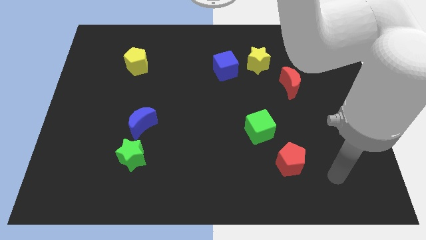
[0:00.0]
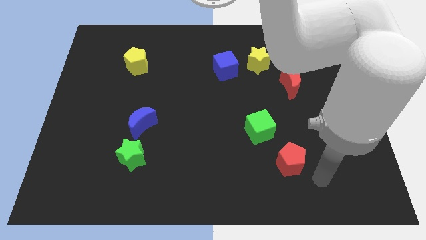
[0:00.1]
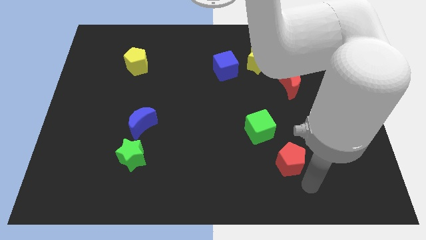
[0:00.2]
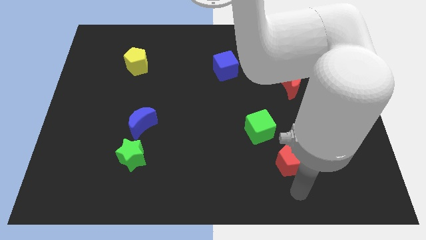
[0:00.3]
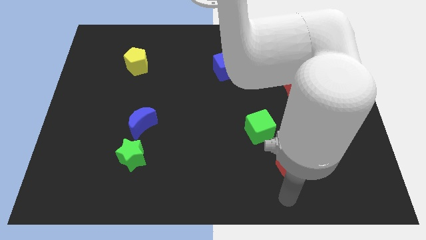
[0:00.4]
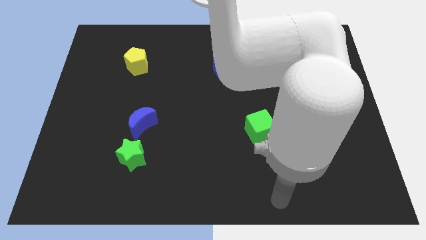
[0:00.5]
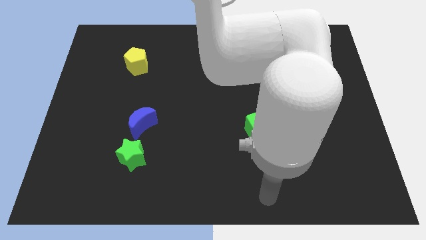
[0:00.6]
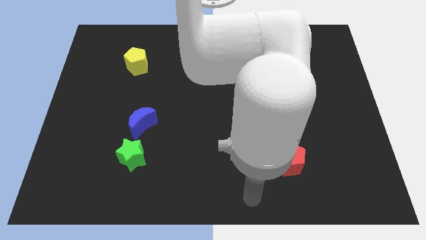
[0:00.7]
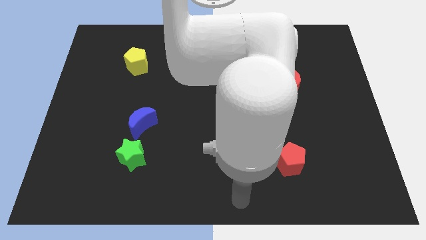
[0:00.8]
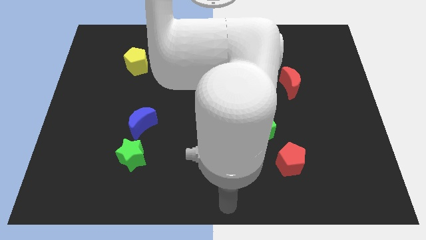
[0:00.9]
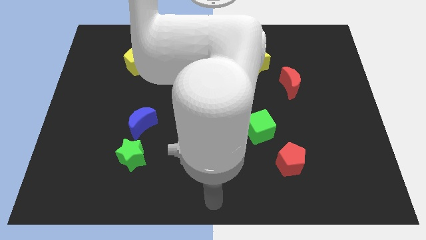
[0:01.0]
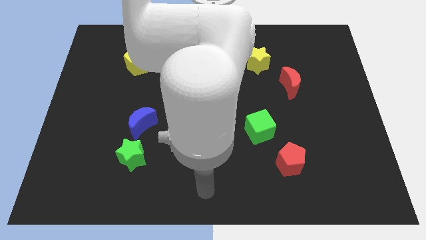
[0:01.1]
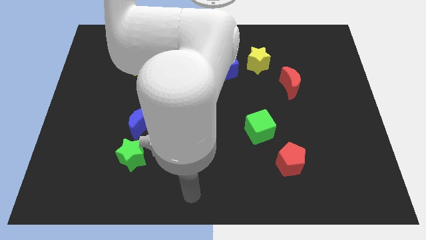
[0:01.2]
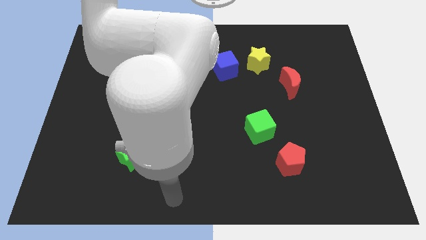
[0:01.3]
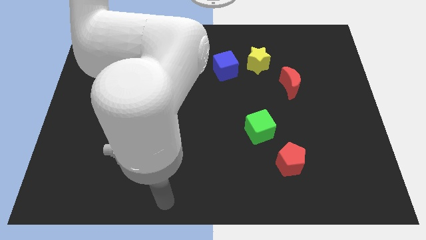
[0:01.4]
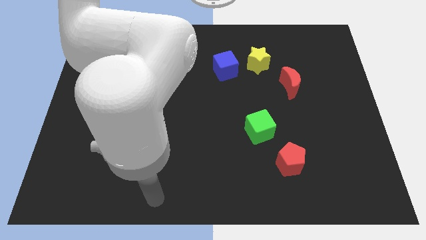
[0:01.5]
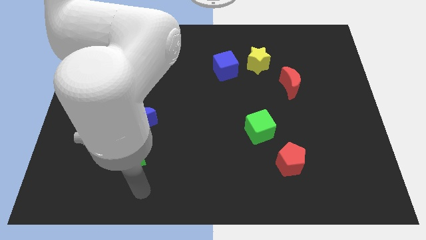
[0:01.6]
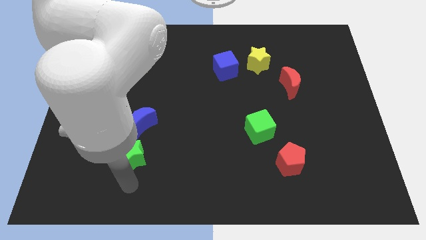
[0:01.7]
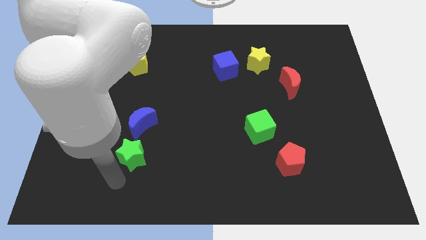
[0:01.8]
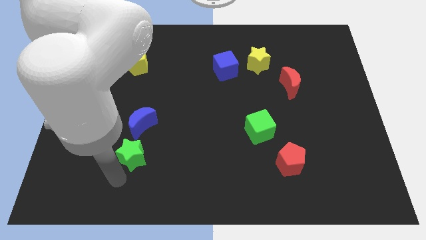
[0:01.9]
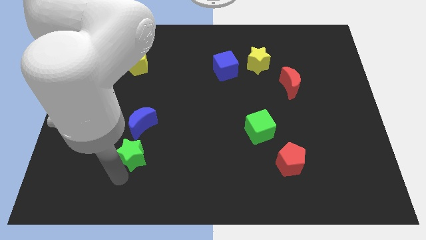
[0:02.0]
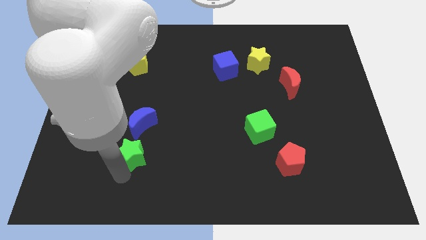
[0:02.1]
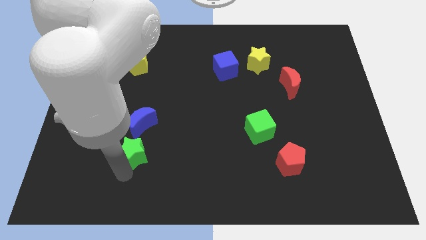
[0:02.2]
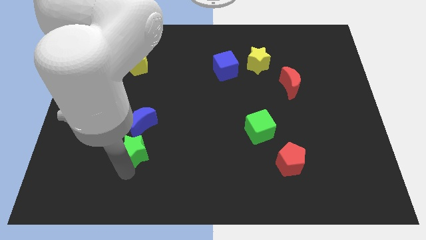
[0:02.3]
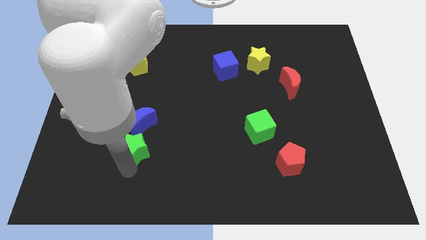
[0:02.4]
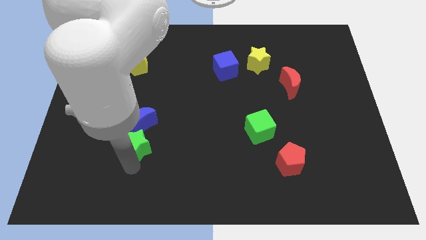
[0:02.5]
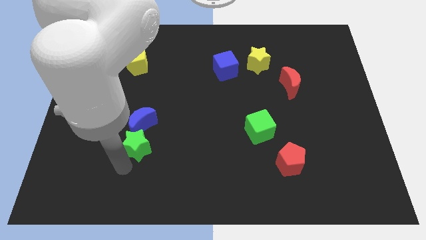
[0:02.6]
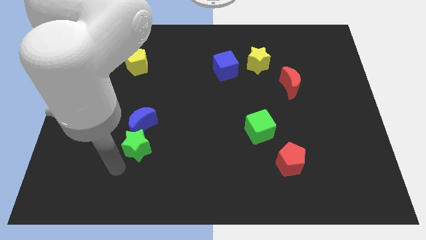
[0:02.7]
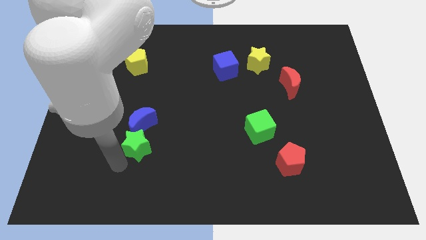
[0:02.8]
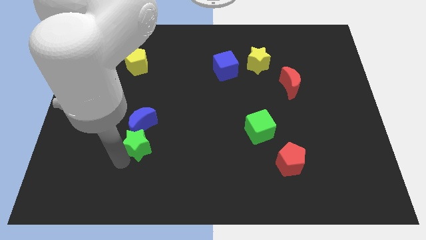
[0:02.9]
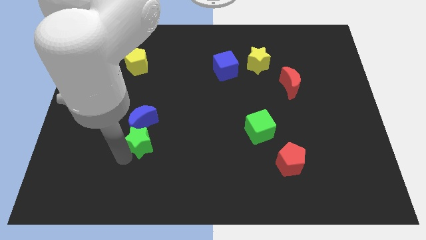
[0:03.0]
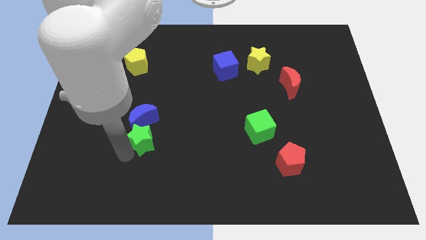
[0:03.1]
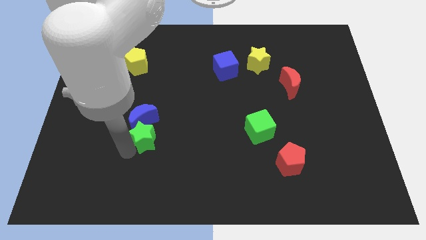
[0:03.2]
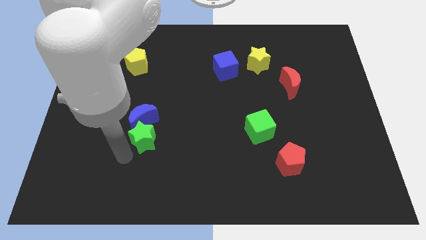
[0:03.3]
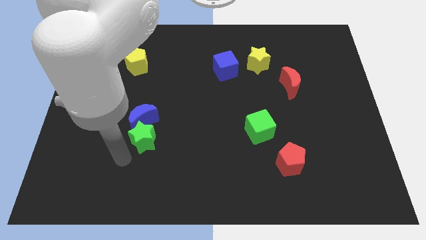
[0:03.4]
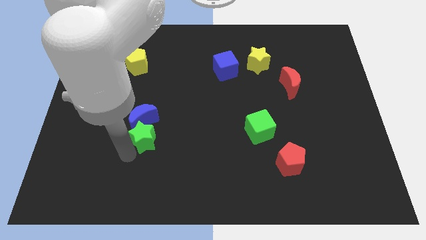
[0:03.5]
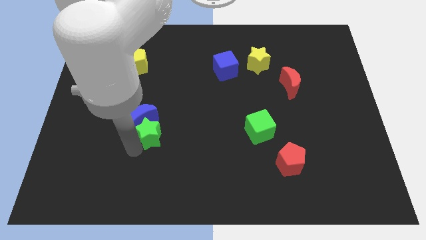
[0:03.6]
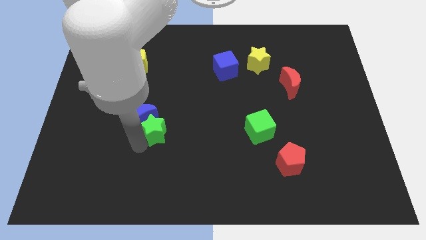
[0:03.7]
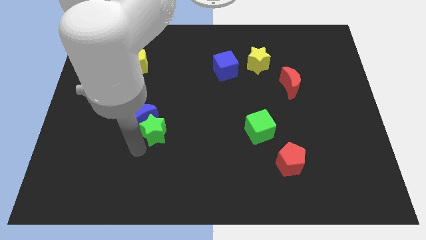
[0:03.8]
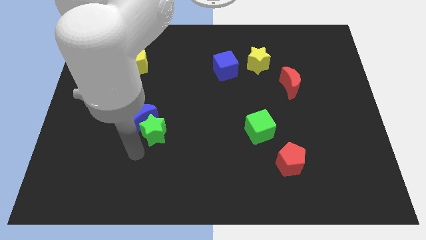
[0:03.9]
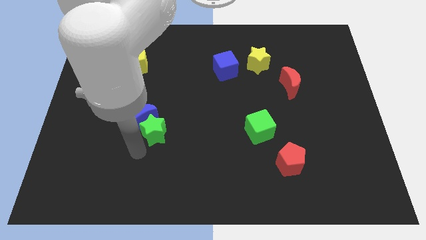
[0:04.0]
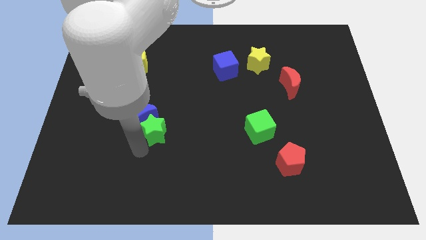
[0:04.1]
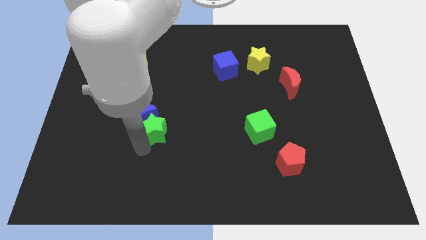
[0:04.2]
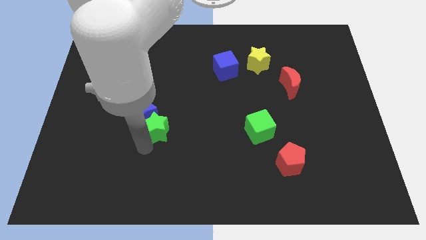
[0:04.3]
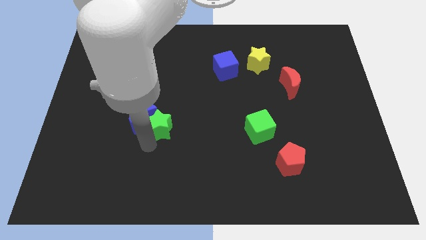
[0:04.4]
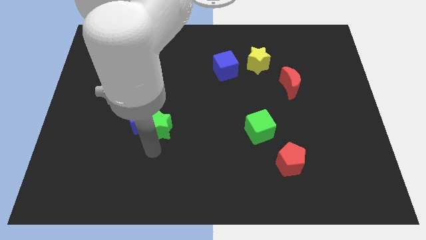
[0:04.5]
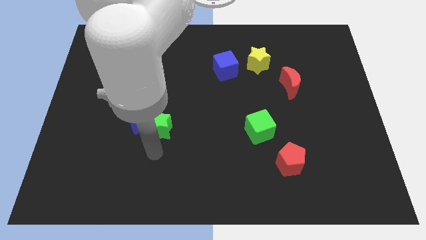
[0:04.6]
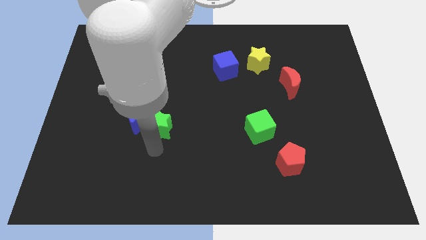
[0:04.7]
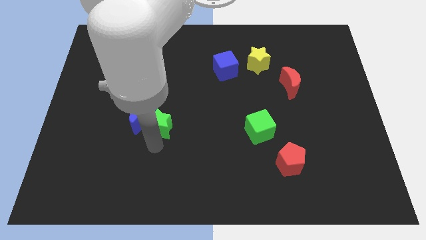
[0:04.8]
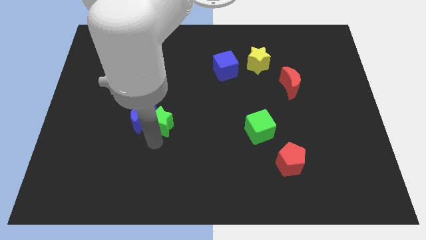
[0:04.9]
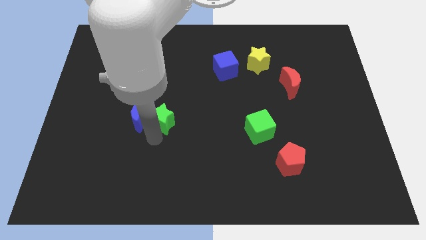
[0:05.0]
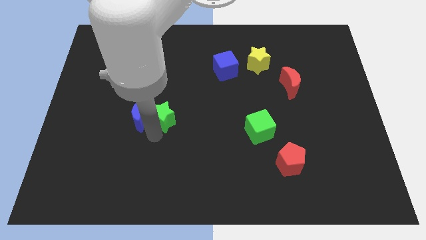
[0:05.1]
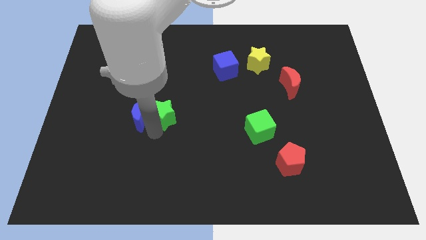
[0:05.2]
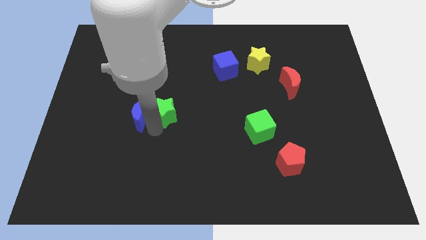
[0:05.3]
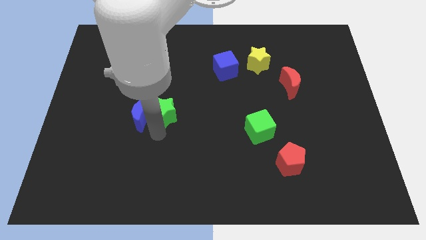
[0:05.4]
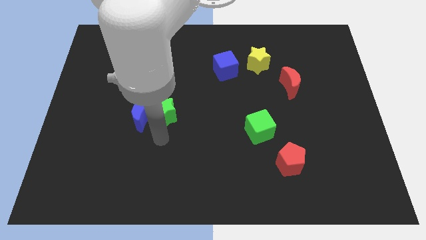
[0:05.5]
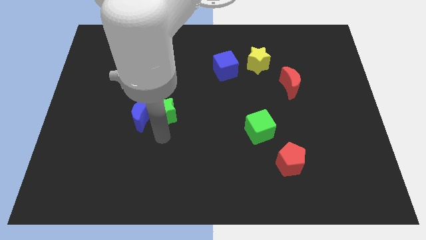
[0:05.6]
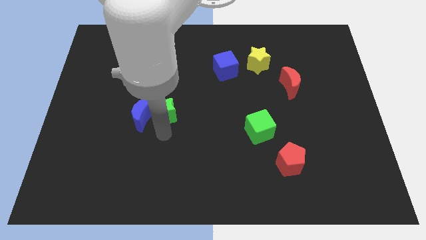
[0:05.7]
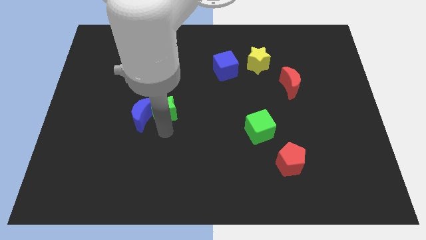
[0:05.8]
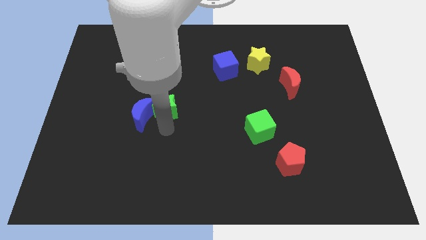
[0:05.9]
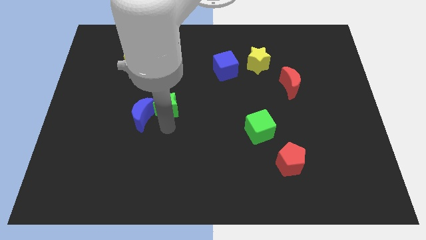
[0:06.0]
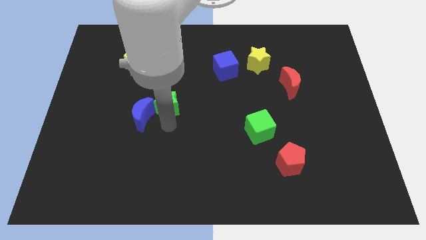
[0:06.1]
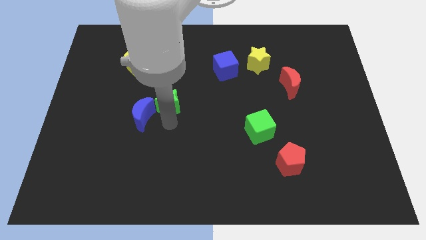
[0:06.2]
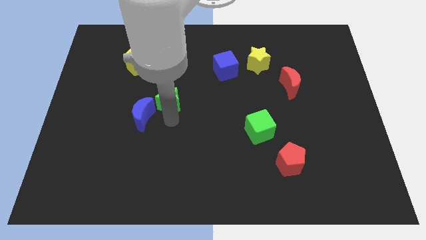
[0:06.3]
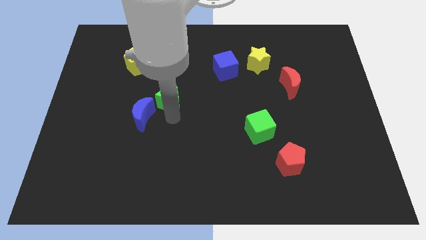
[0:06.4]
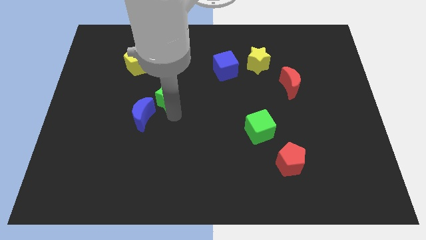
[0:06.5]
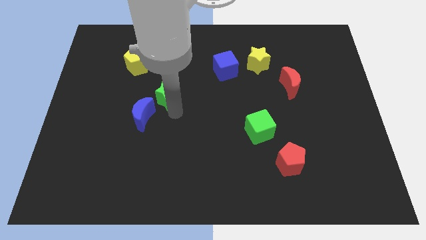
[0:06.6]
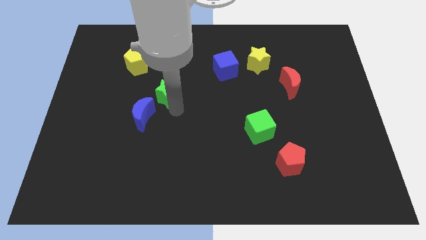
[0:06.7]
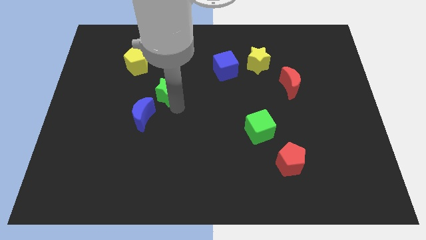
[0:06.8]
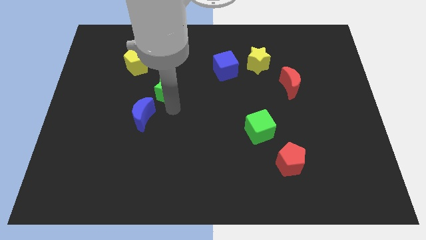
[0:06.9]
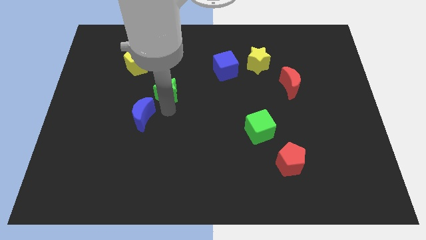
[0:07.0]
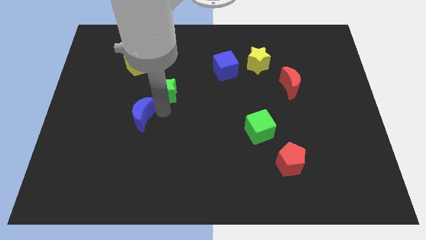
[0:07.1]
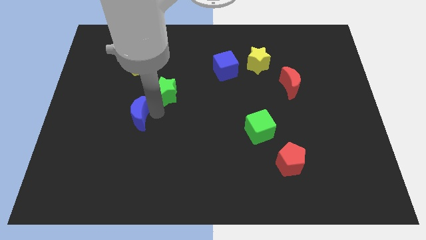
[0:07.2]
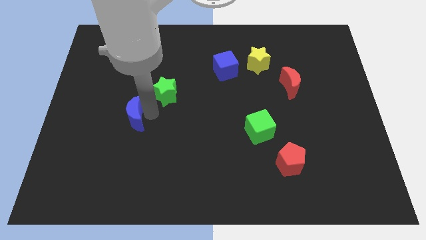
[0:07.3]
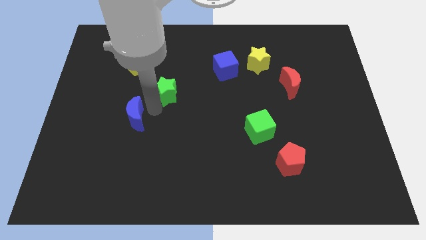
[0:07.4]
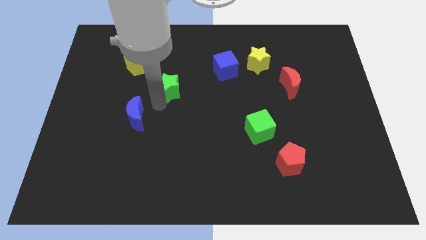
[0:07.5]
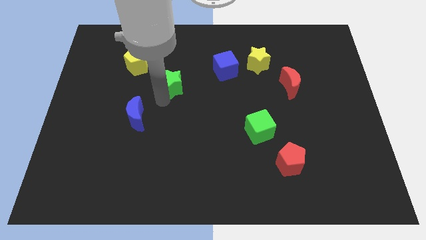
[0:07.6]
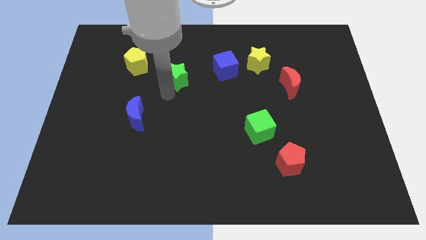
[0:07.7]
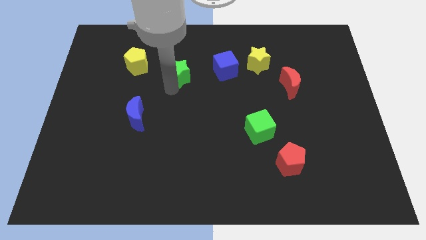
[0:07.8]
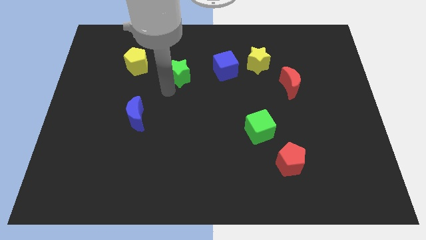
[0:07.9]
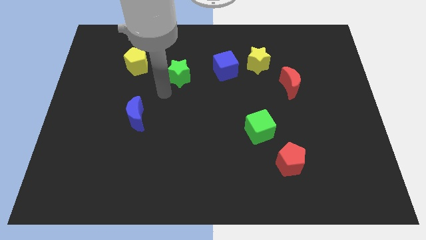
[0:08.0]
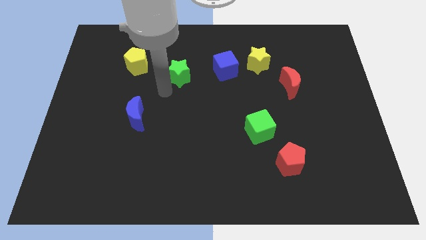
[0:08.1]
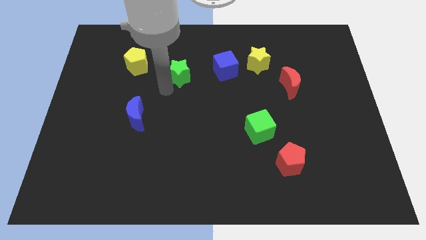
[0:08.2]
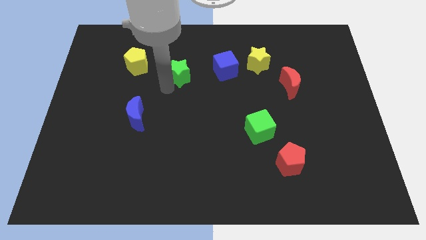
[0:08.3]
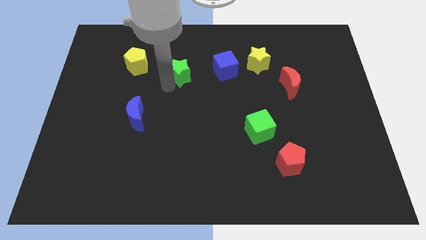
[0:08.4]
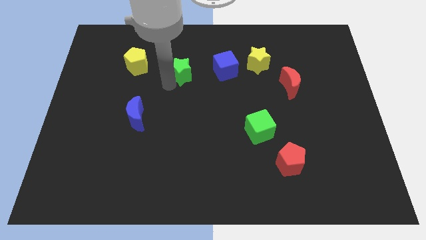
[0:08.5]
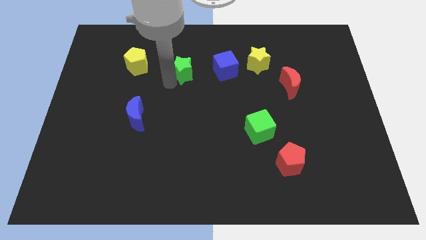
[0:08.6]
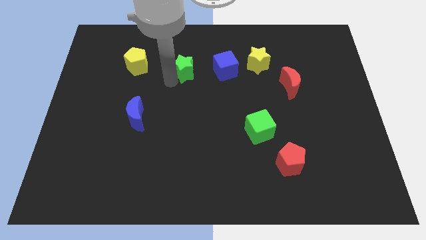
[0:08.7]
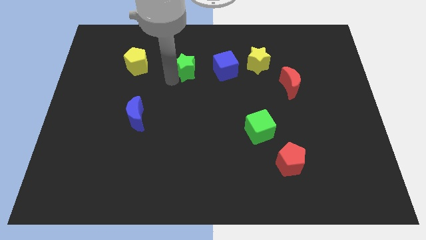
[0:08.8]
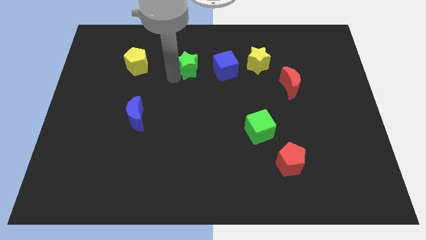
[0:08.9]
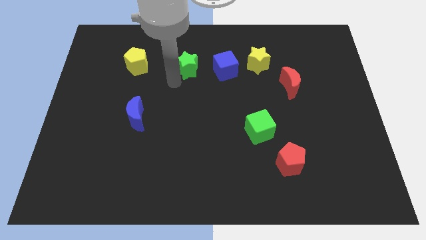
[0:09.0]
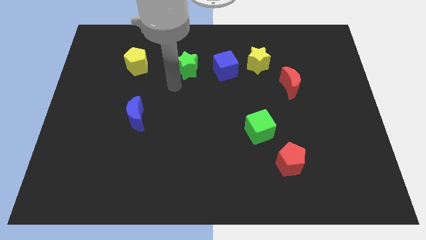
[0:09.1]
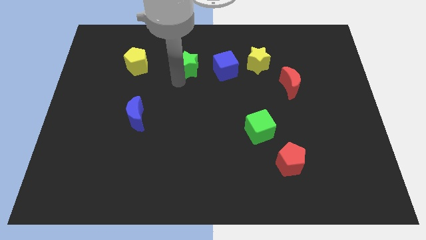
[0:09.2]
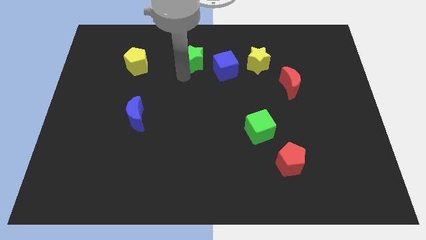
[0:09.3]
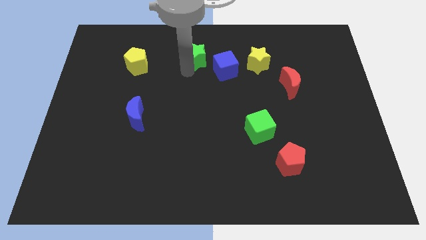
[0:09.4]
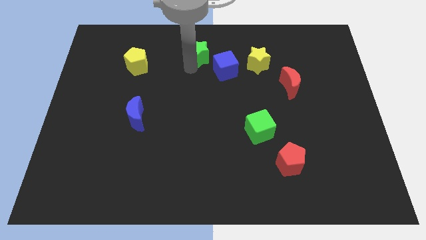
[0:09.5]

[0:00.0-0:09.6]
put the green star to the towards your base
